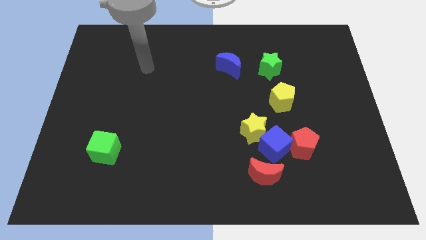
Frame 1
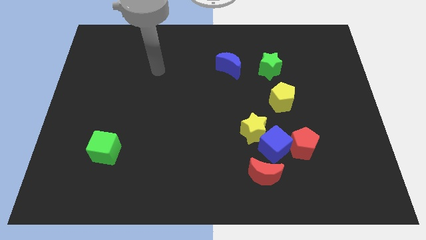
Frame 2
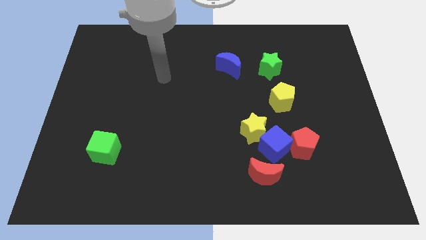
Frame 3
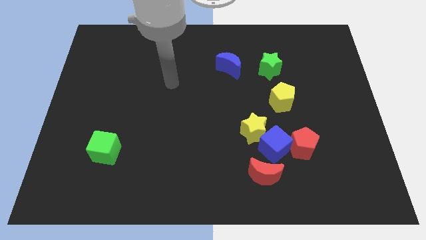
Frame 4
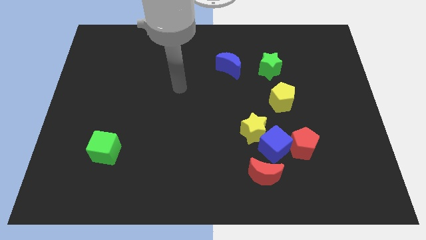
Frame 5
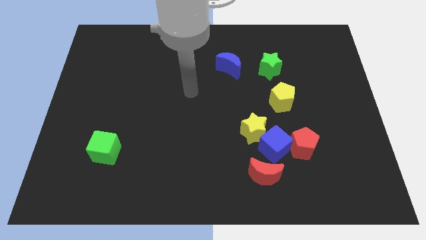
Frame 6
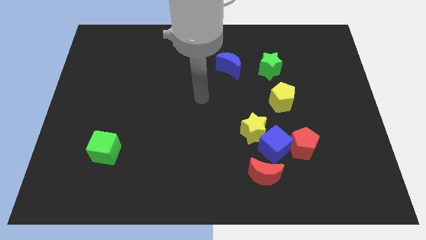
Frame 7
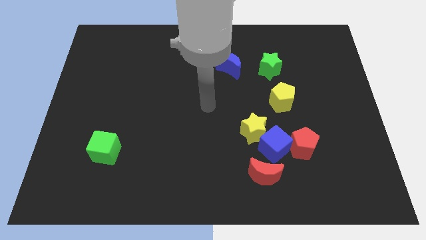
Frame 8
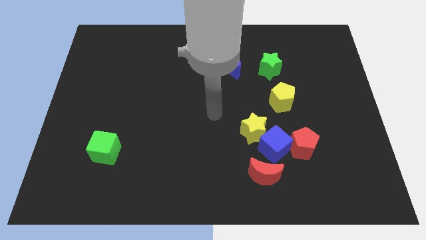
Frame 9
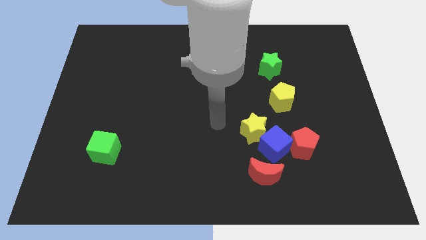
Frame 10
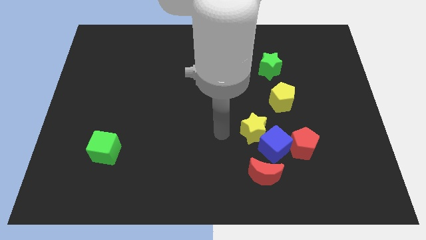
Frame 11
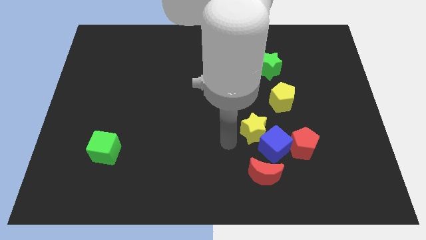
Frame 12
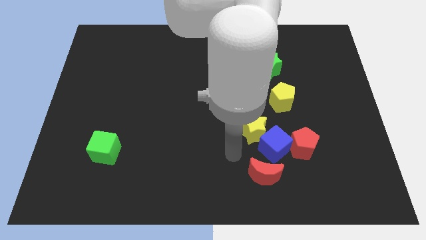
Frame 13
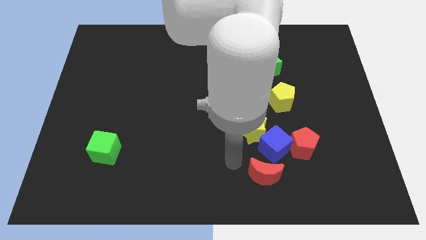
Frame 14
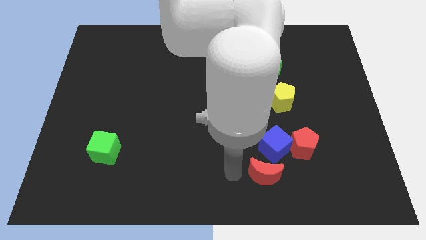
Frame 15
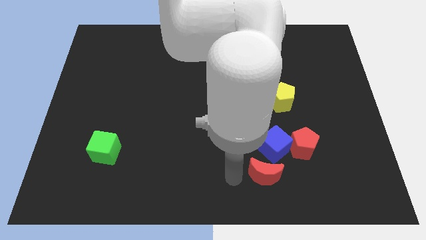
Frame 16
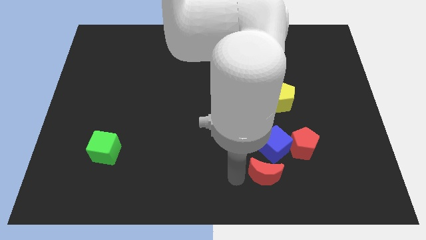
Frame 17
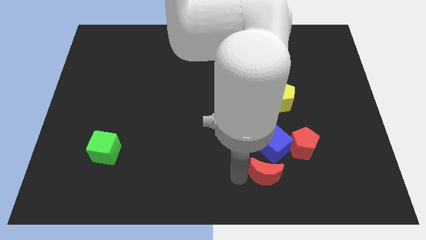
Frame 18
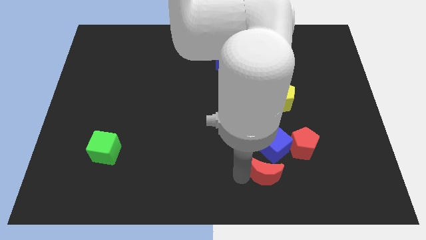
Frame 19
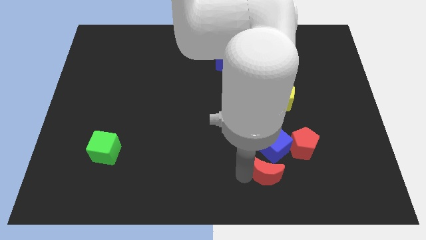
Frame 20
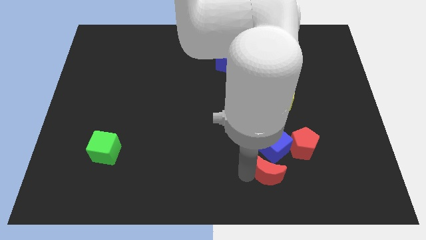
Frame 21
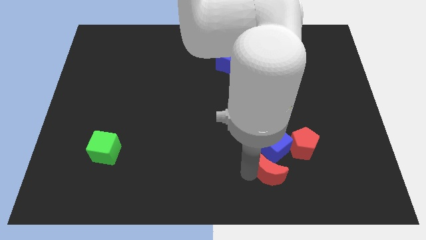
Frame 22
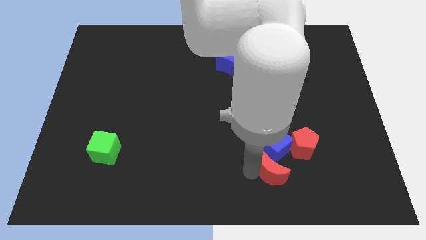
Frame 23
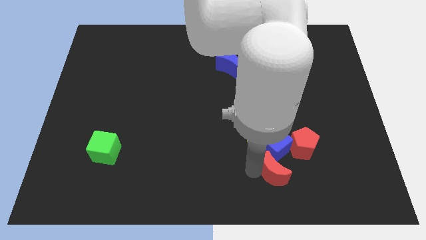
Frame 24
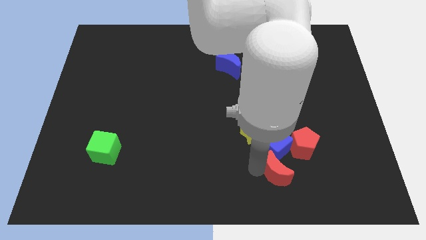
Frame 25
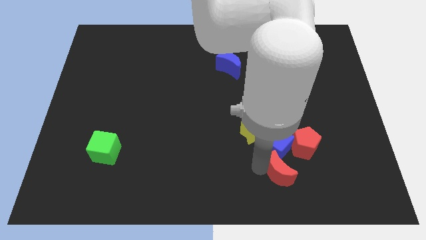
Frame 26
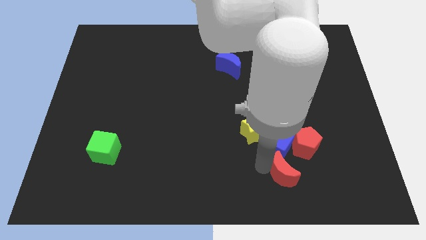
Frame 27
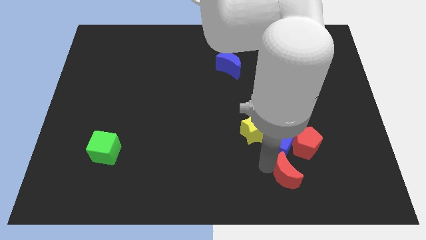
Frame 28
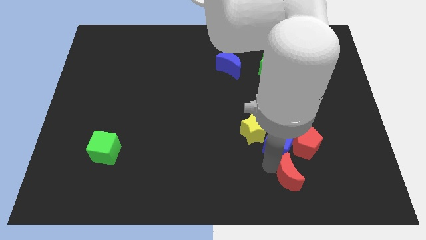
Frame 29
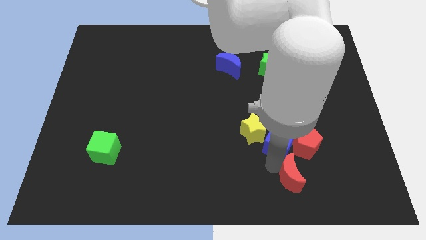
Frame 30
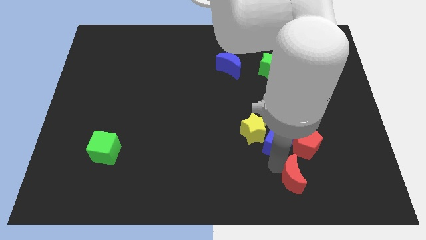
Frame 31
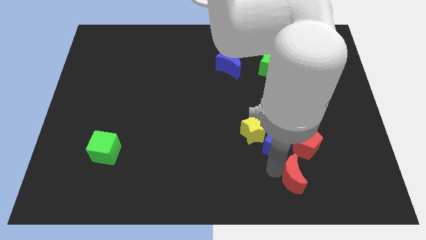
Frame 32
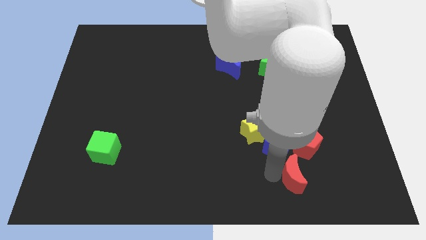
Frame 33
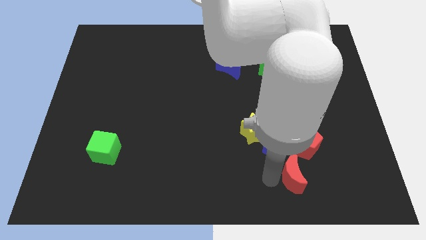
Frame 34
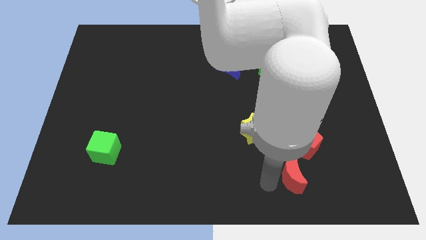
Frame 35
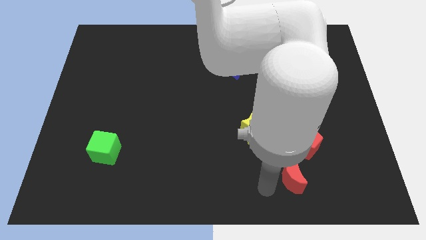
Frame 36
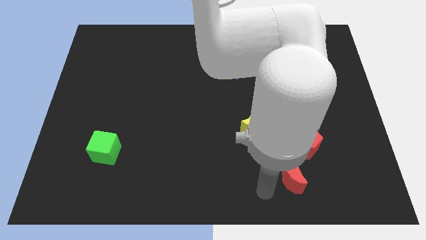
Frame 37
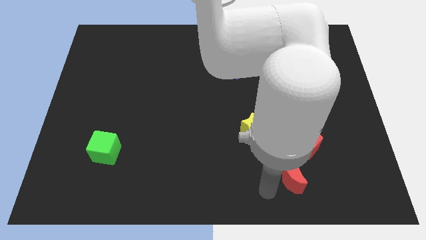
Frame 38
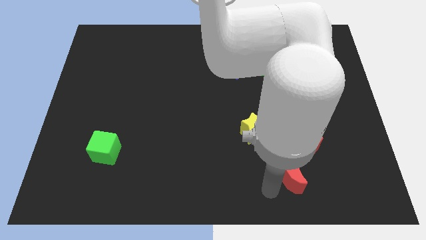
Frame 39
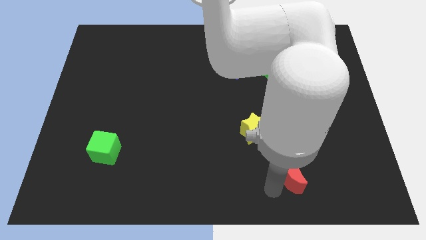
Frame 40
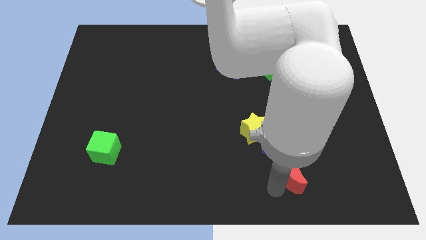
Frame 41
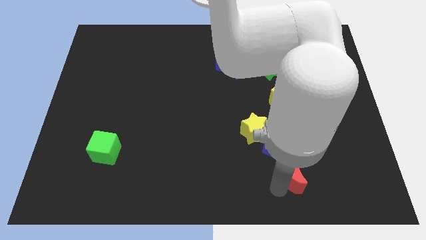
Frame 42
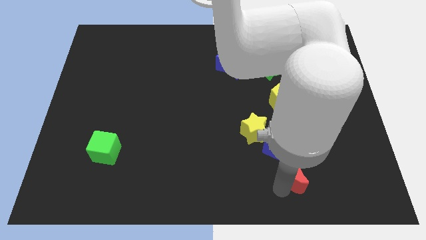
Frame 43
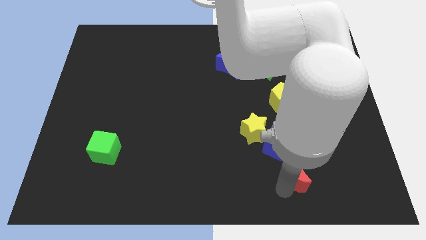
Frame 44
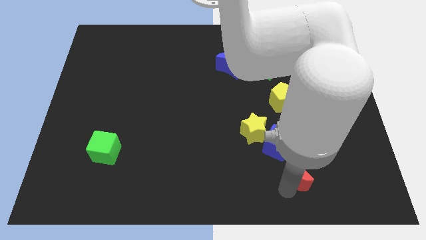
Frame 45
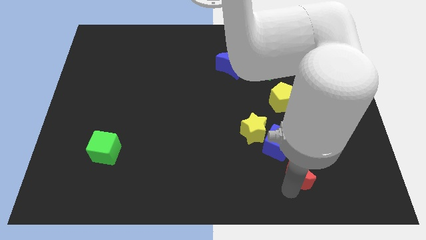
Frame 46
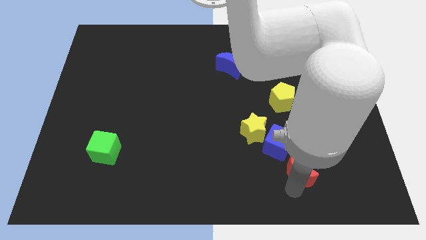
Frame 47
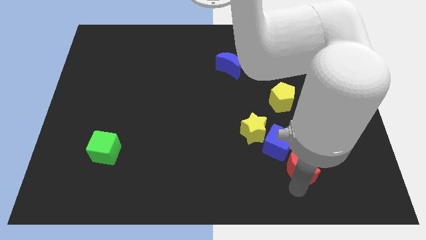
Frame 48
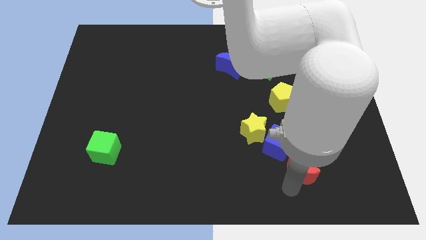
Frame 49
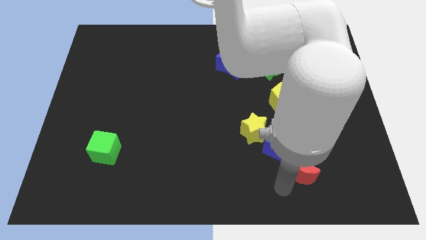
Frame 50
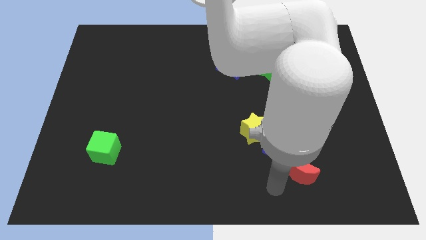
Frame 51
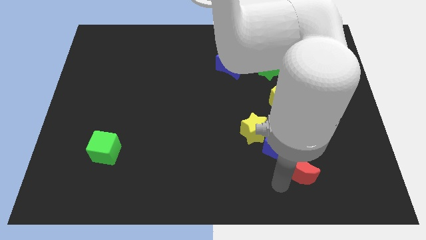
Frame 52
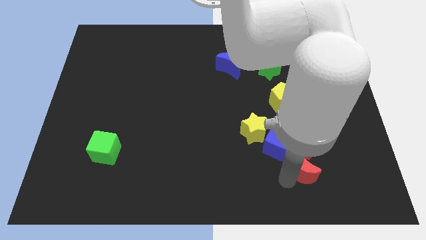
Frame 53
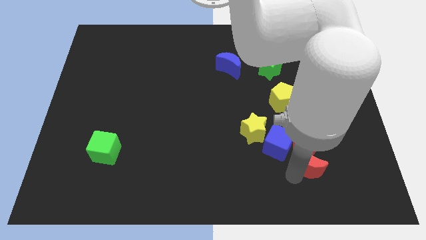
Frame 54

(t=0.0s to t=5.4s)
slightly move the red moon up and right

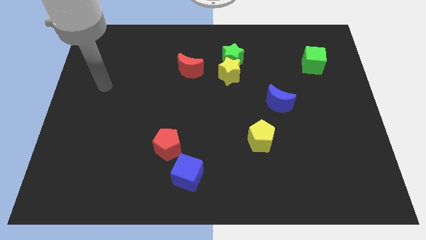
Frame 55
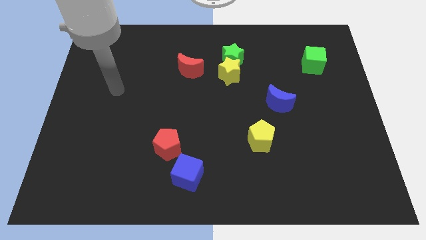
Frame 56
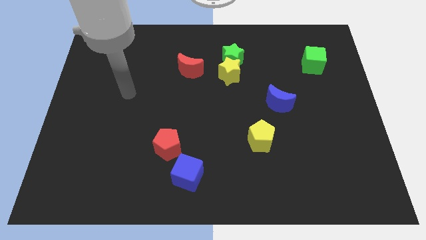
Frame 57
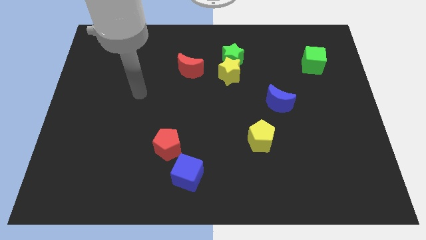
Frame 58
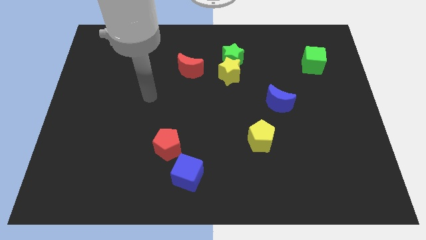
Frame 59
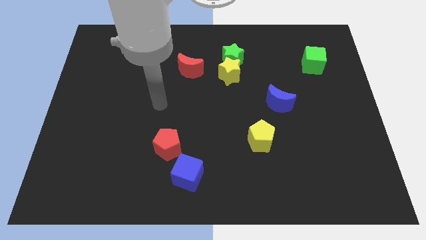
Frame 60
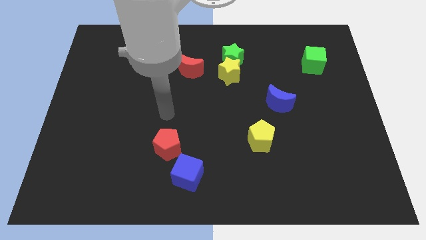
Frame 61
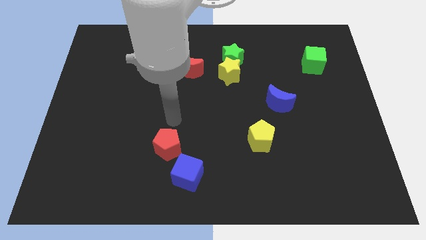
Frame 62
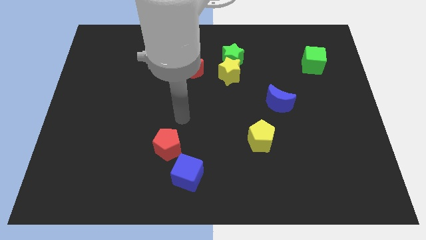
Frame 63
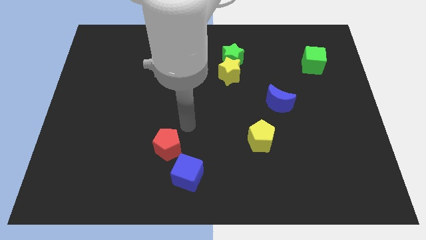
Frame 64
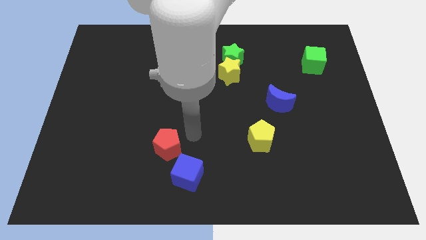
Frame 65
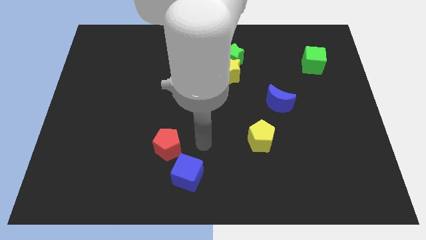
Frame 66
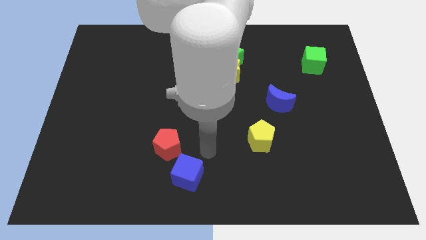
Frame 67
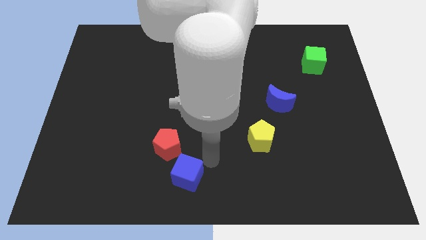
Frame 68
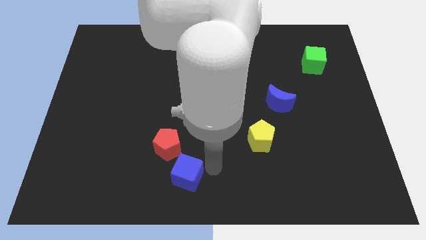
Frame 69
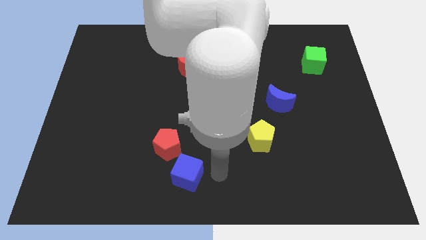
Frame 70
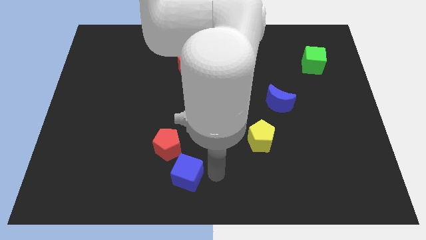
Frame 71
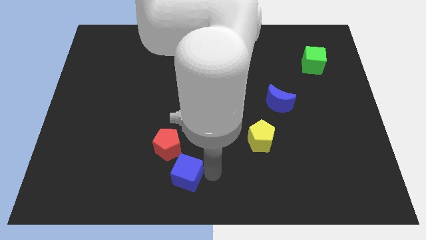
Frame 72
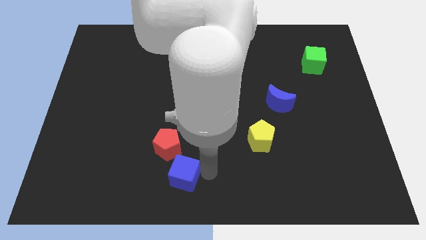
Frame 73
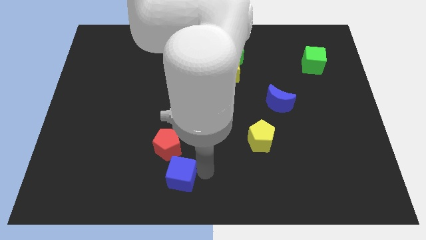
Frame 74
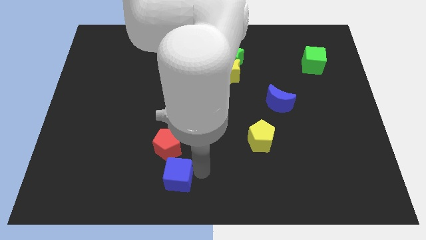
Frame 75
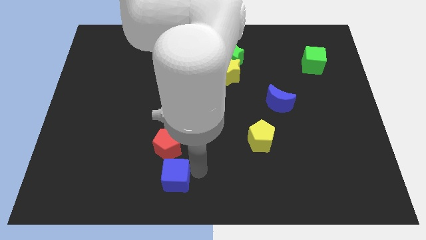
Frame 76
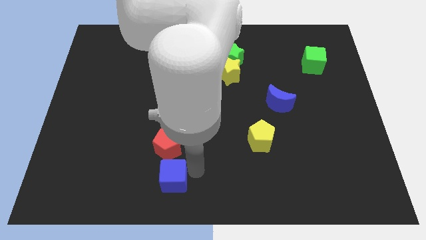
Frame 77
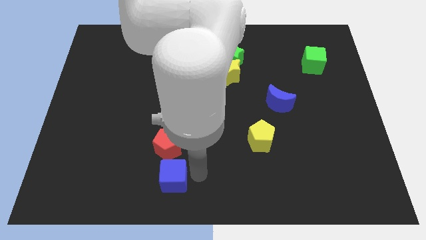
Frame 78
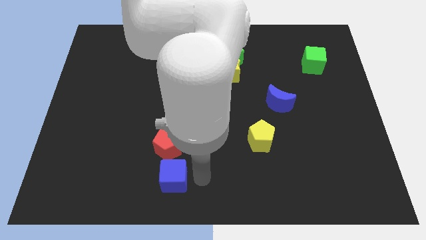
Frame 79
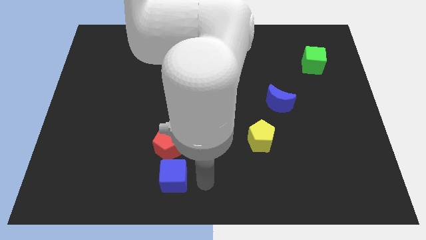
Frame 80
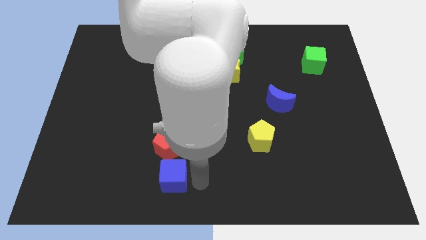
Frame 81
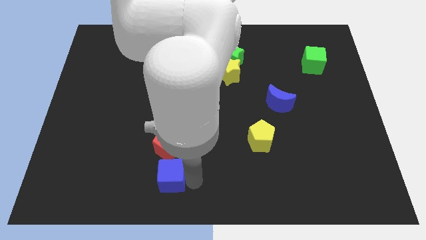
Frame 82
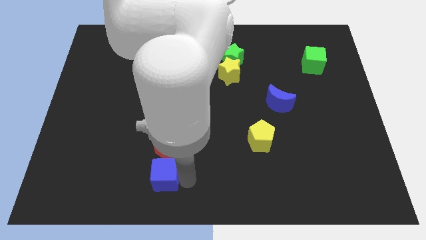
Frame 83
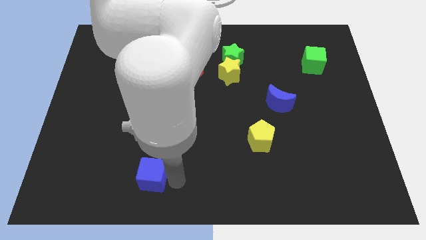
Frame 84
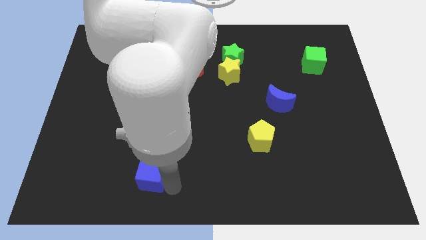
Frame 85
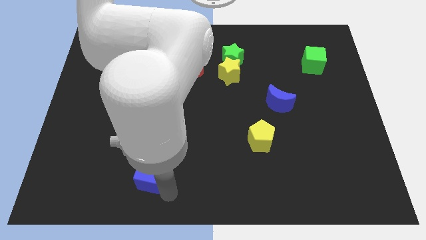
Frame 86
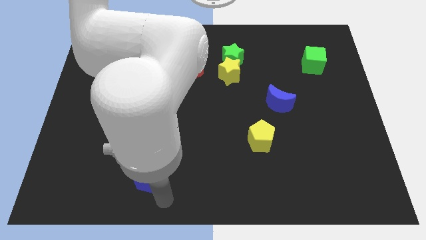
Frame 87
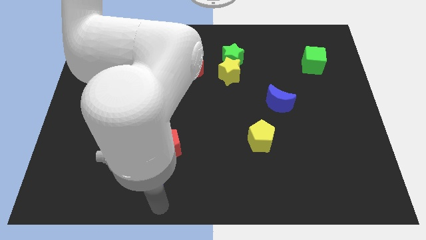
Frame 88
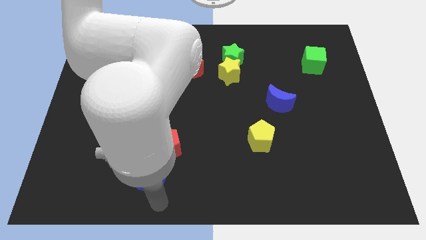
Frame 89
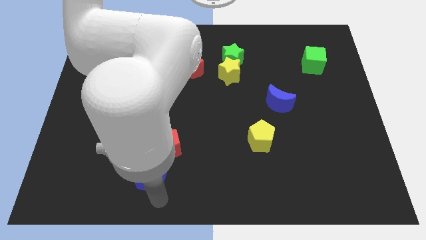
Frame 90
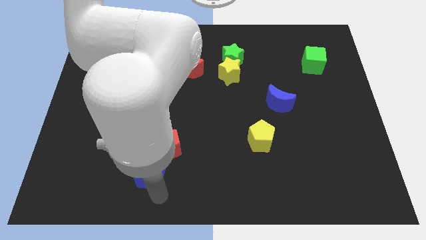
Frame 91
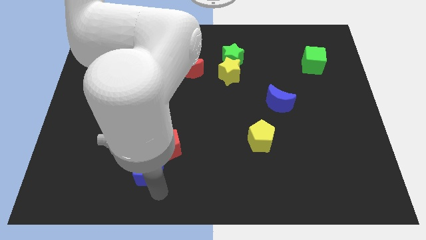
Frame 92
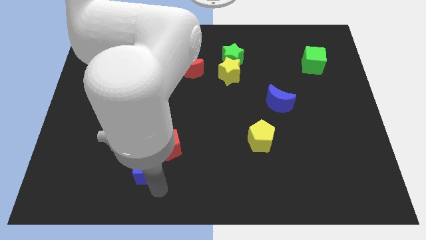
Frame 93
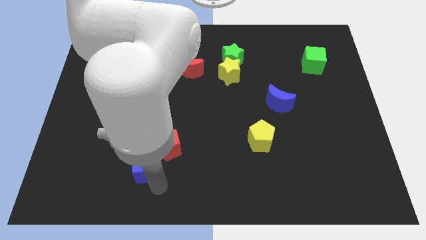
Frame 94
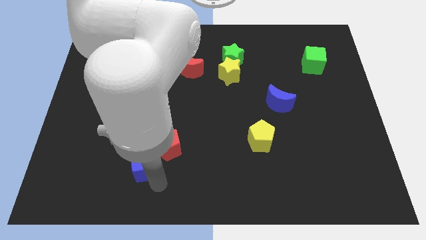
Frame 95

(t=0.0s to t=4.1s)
move the blue cube slightly up and then to the left
